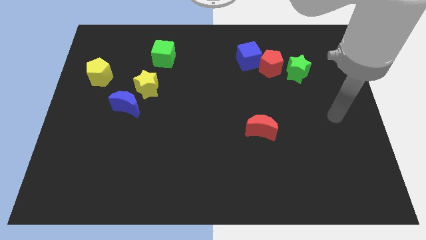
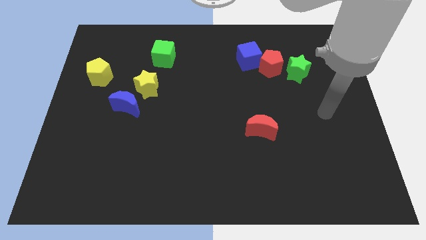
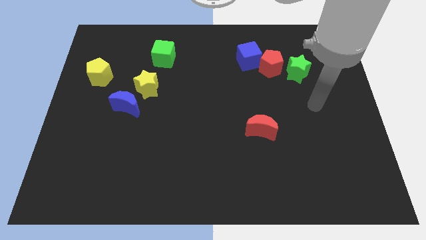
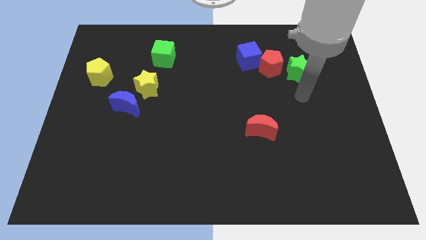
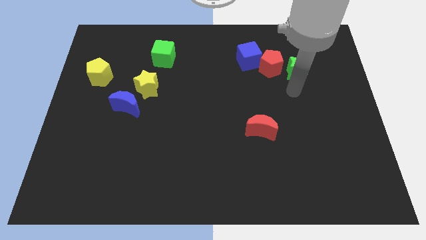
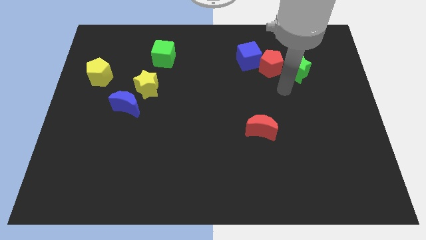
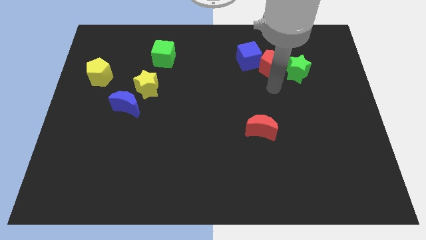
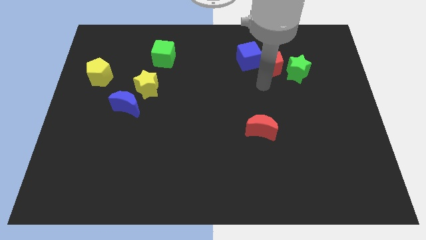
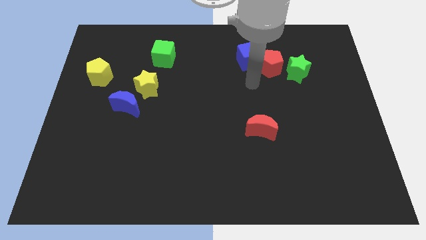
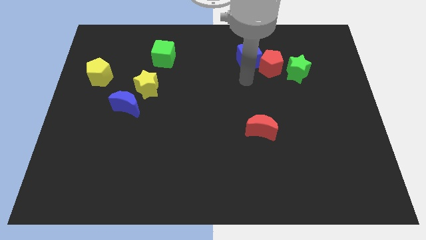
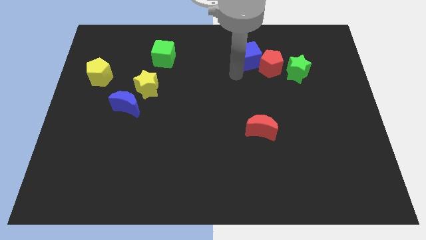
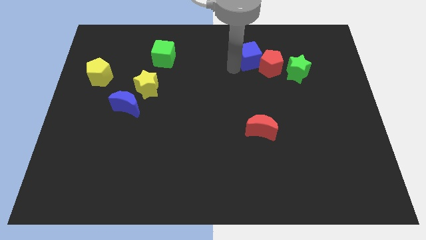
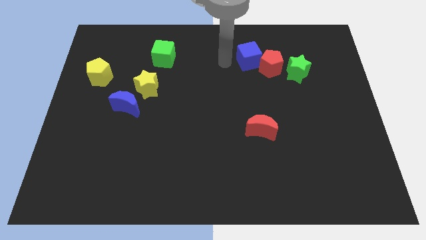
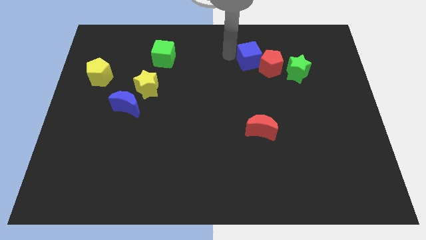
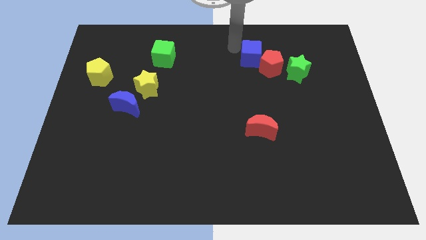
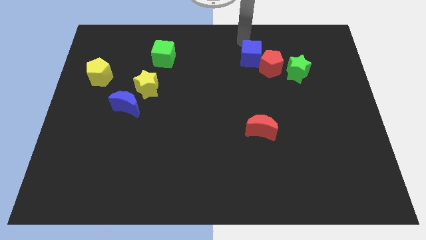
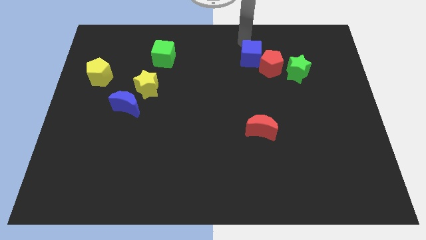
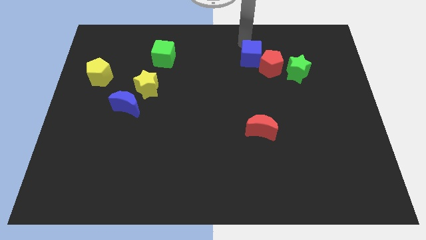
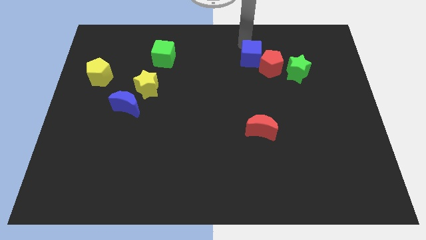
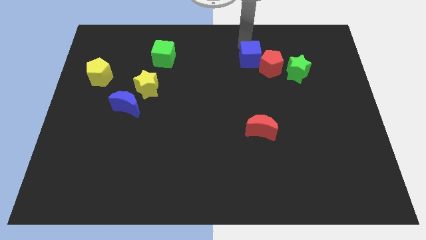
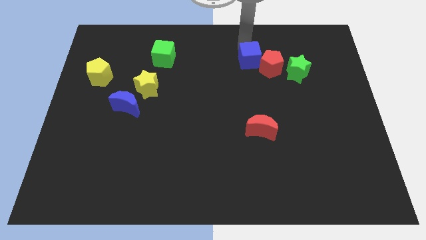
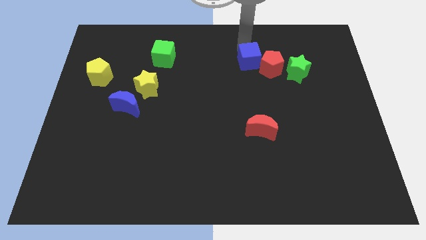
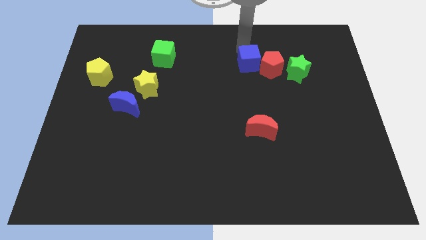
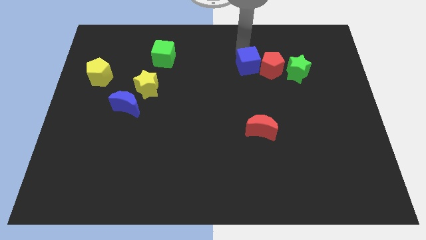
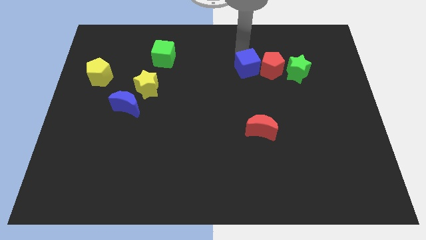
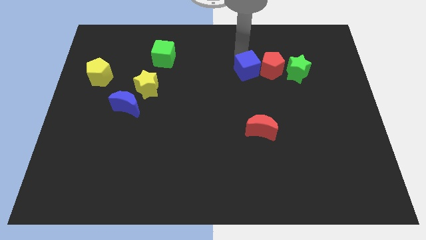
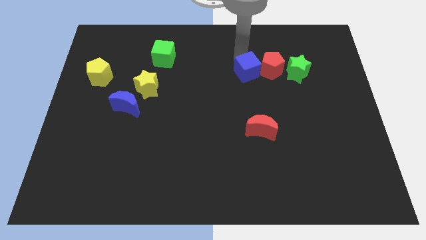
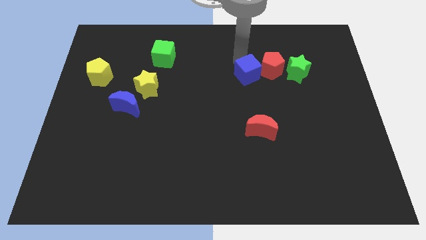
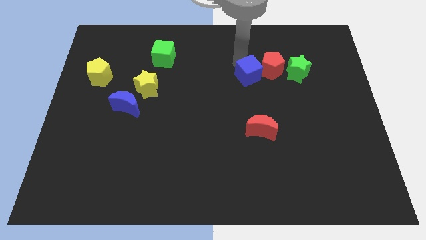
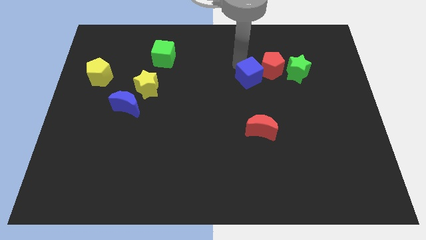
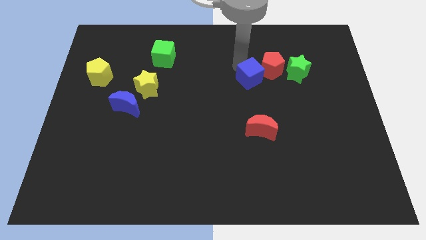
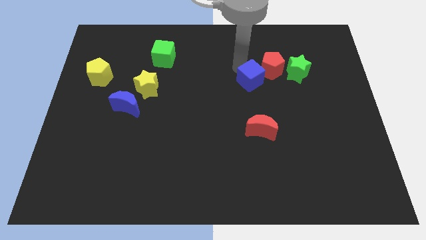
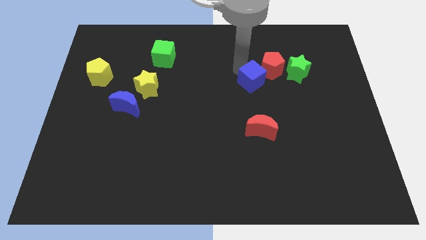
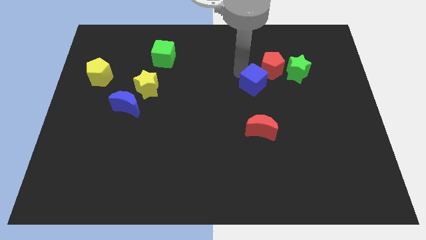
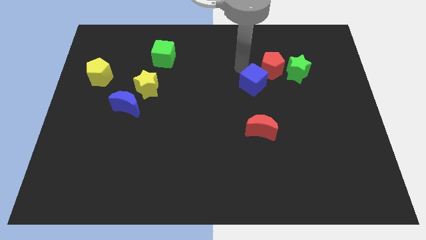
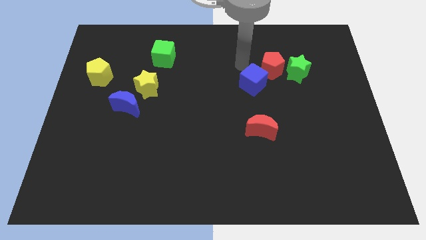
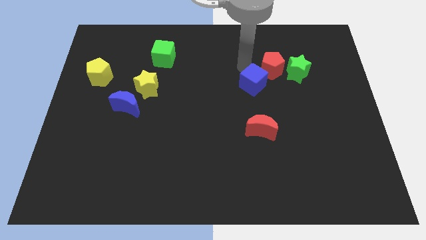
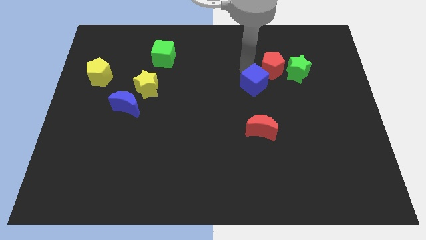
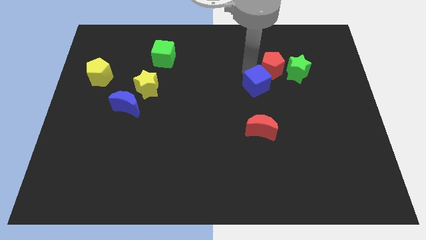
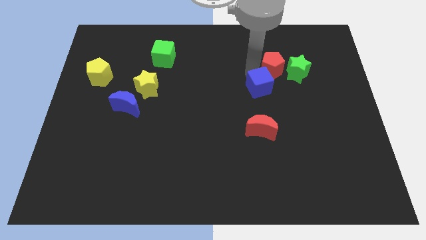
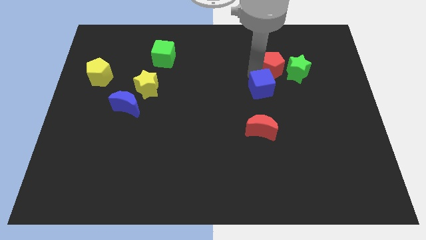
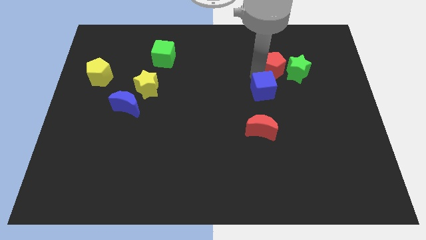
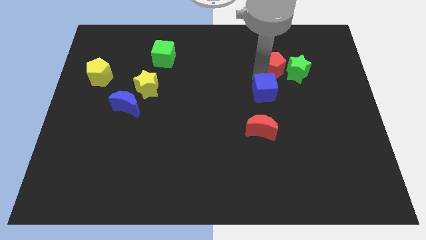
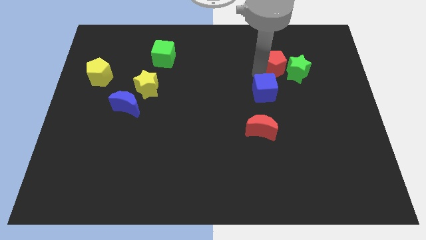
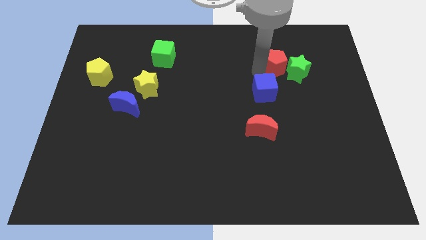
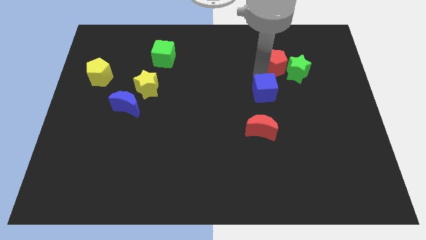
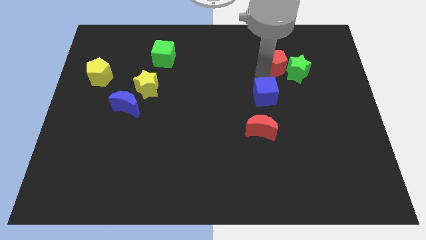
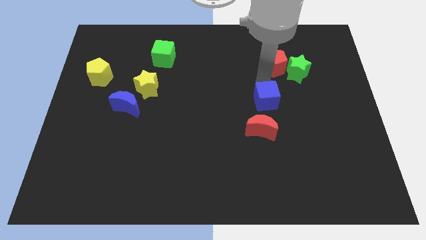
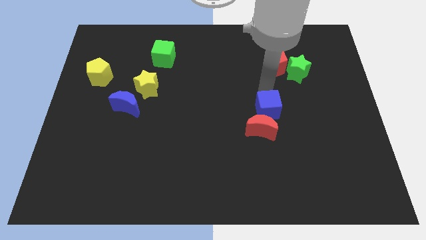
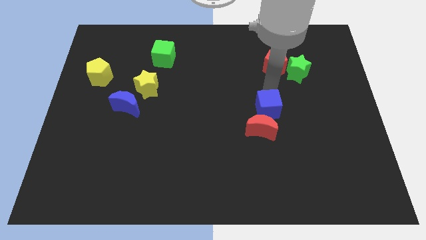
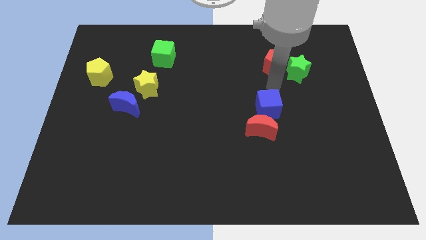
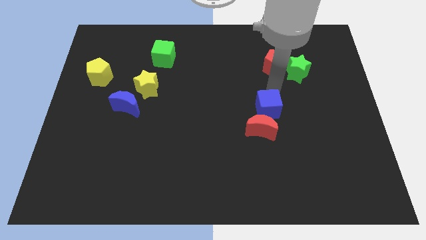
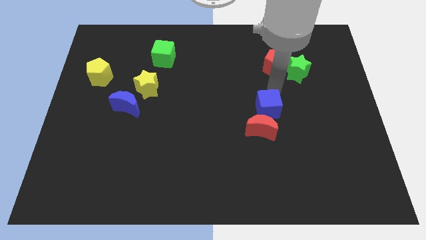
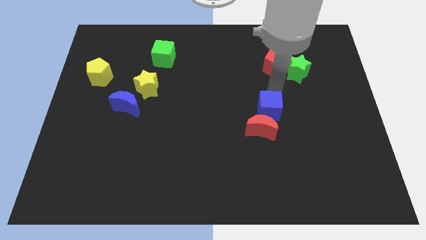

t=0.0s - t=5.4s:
slide the blue cube next to the red moon

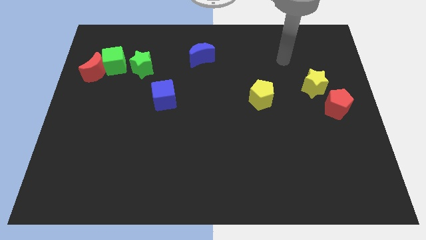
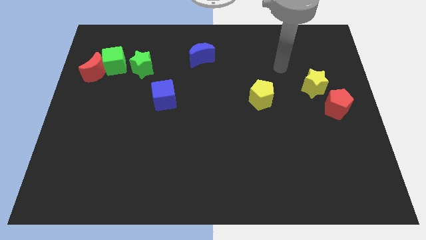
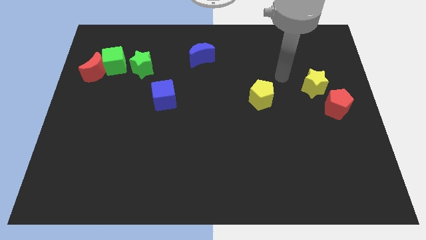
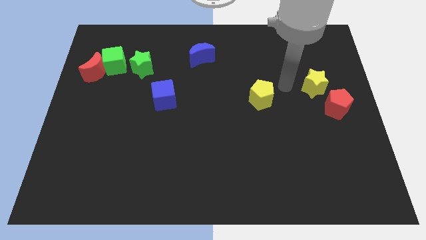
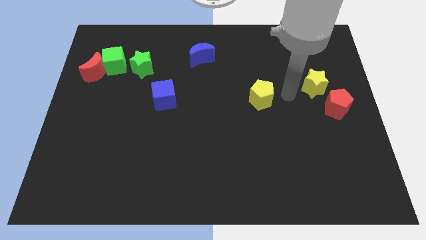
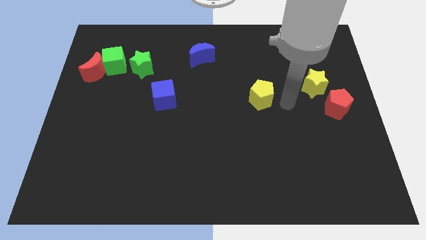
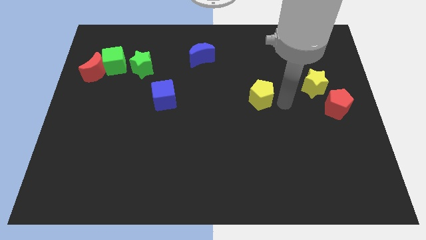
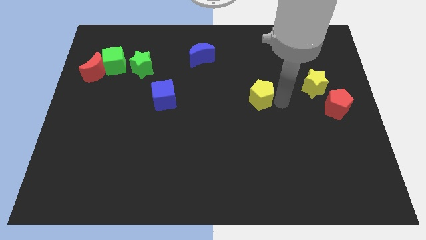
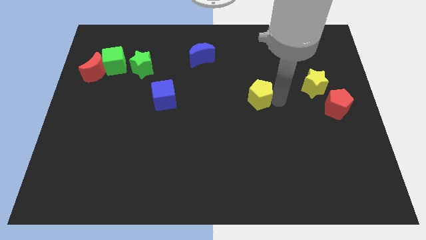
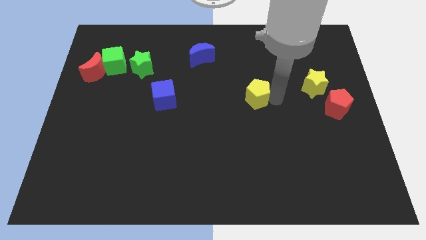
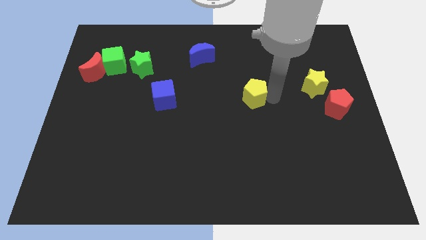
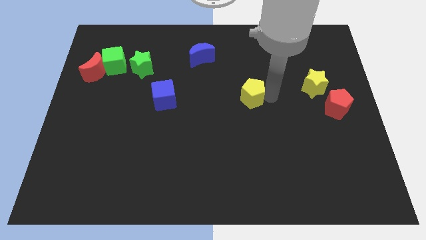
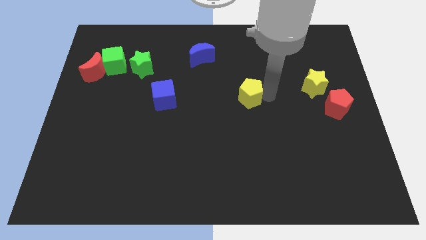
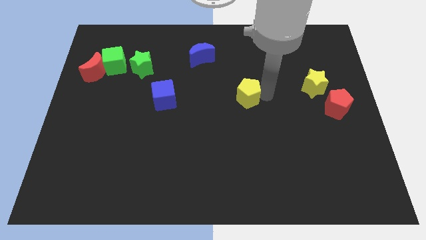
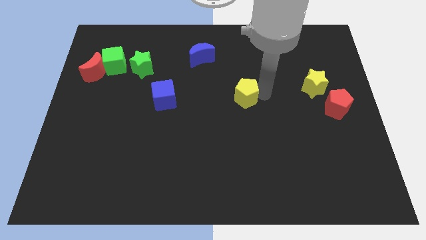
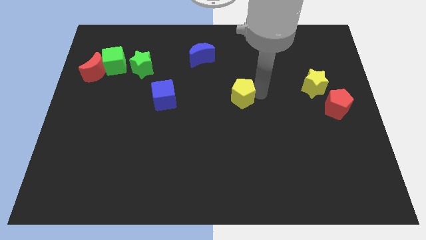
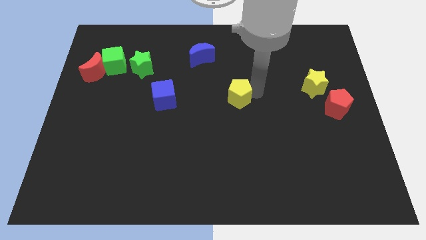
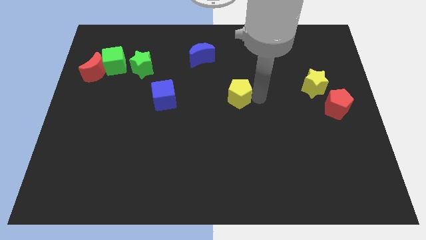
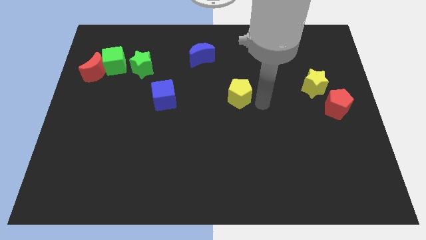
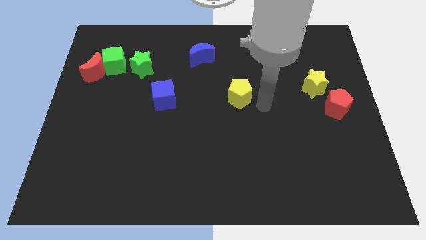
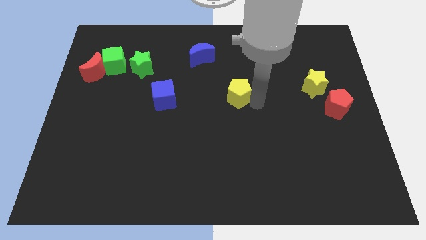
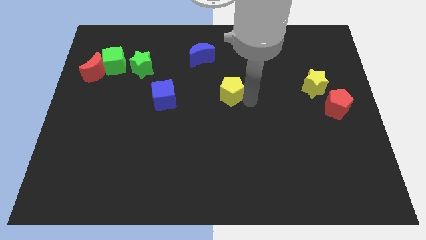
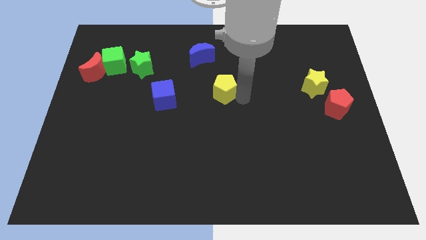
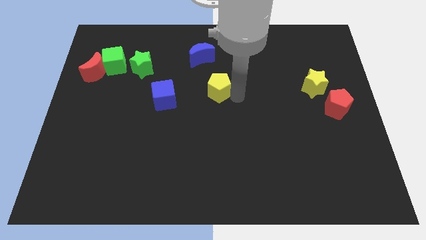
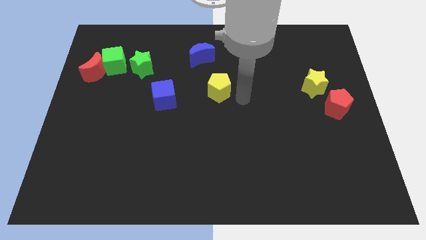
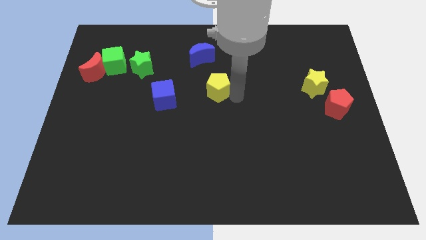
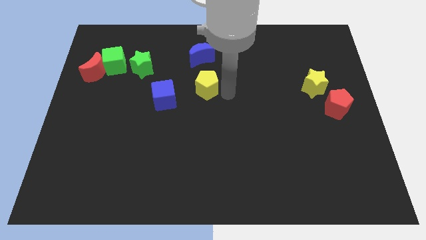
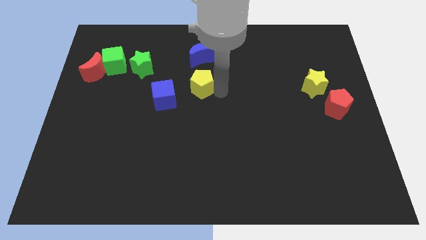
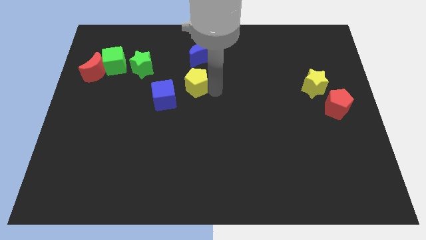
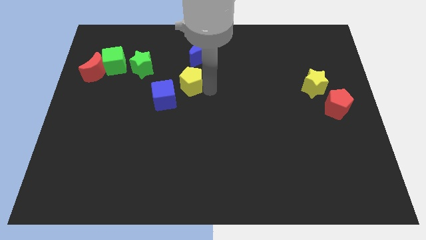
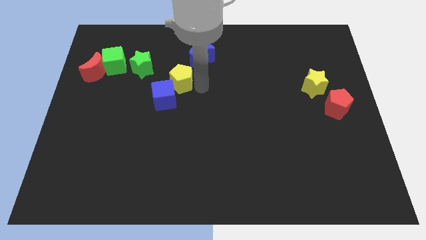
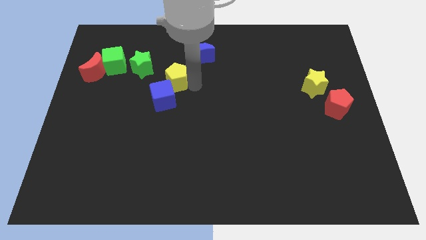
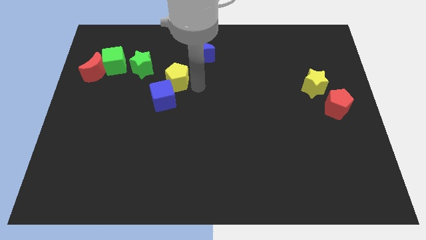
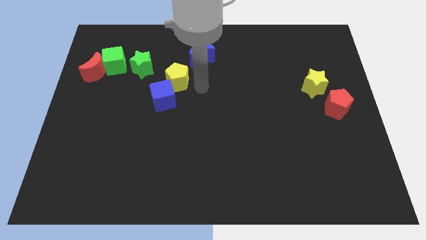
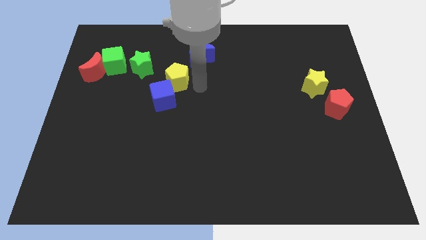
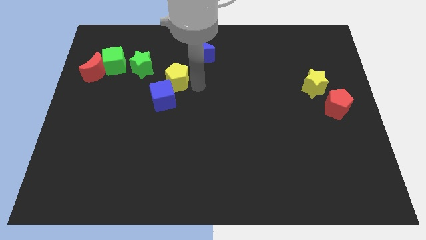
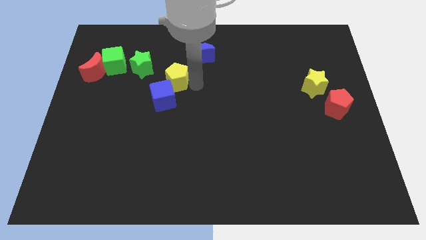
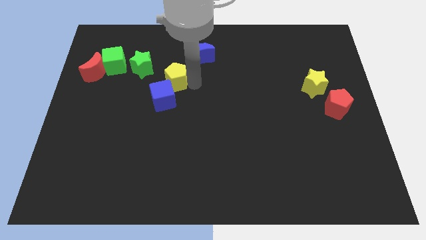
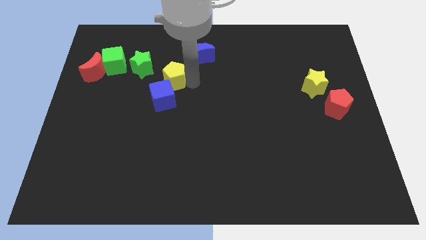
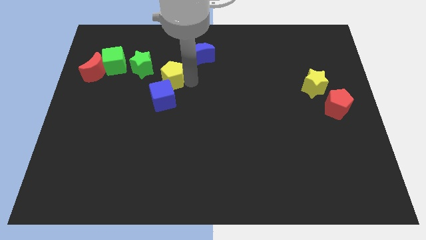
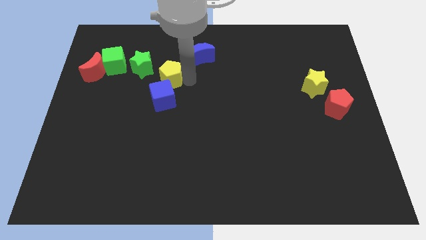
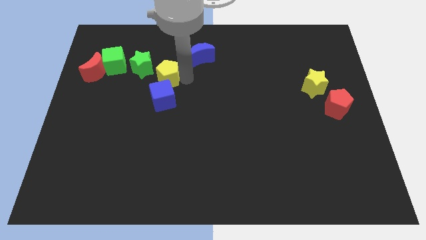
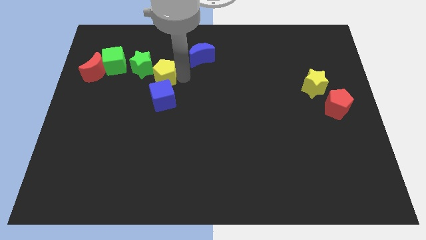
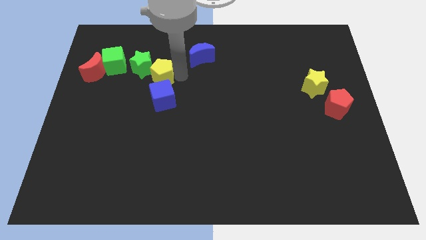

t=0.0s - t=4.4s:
push the yellow pentagon close to the green star
